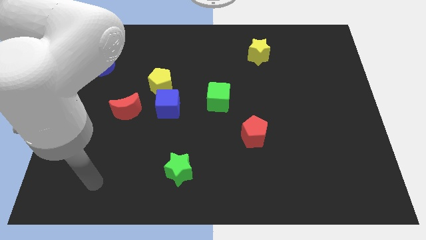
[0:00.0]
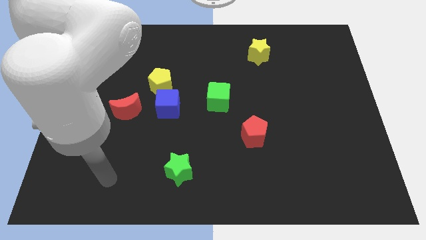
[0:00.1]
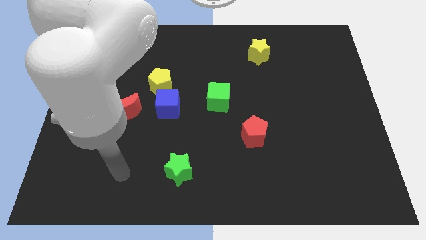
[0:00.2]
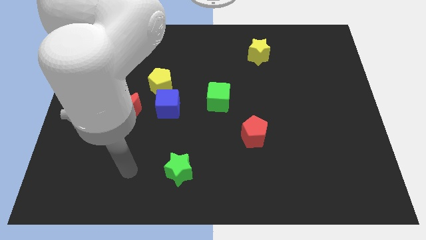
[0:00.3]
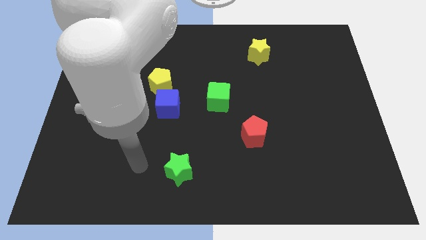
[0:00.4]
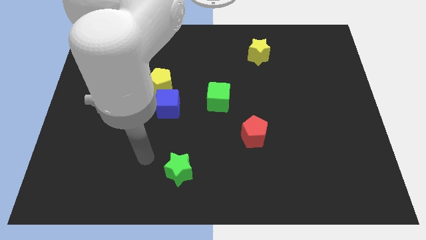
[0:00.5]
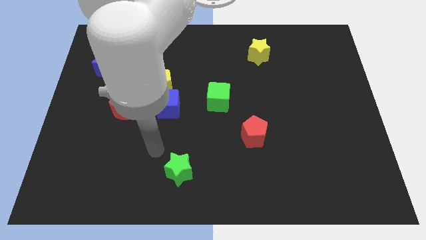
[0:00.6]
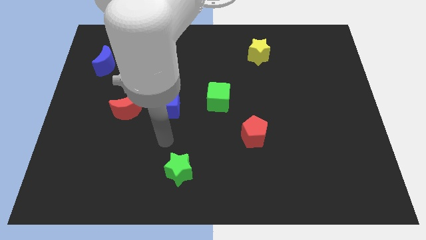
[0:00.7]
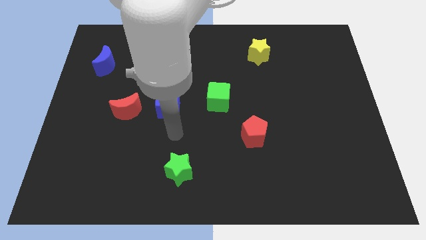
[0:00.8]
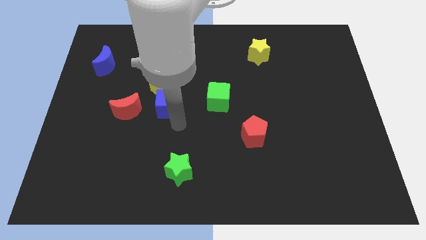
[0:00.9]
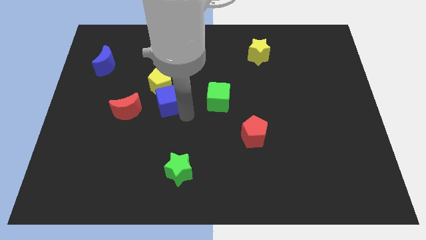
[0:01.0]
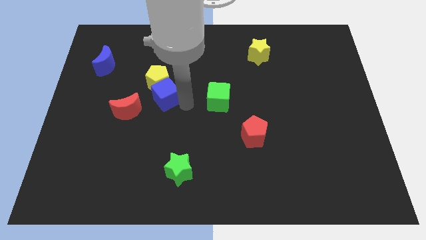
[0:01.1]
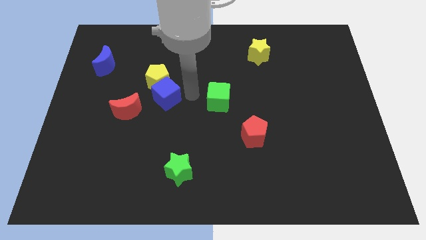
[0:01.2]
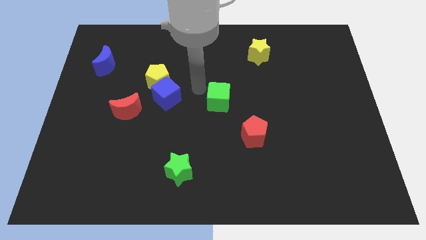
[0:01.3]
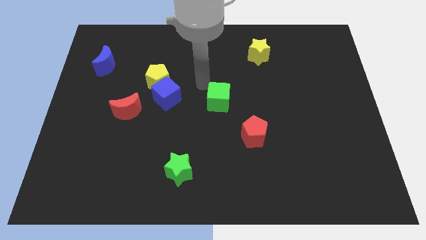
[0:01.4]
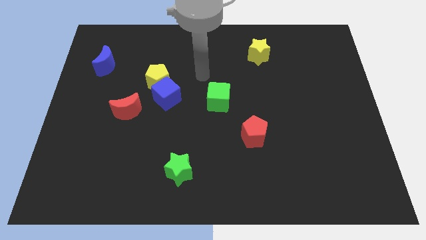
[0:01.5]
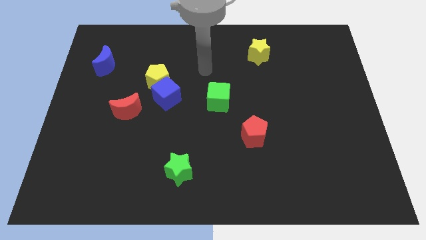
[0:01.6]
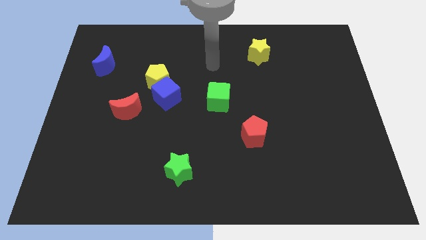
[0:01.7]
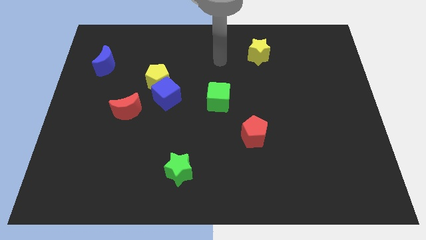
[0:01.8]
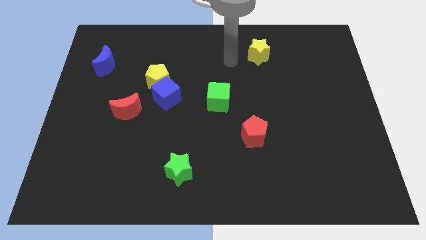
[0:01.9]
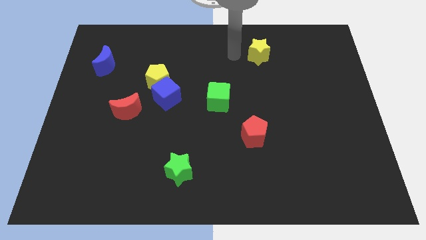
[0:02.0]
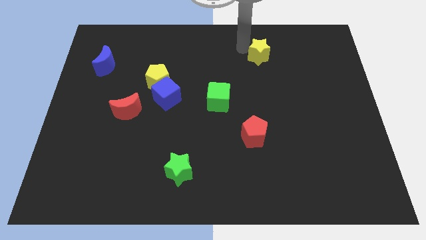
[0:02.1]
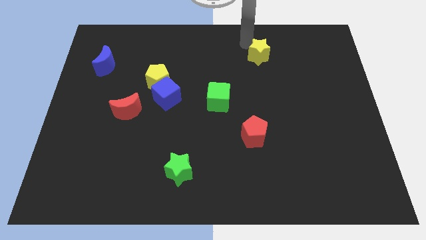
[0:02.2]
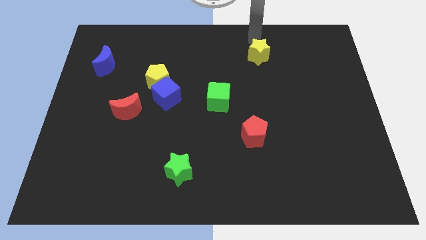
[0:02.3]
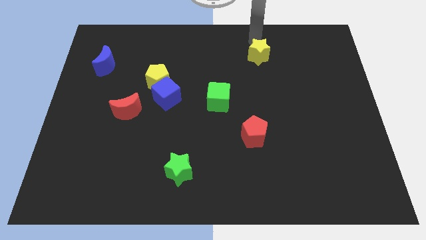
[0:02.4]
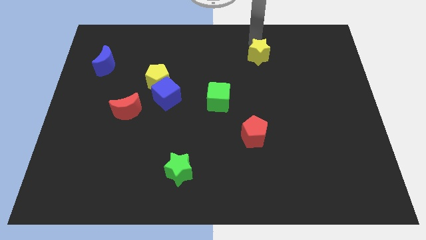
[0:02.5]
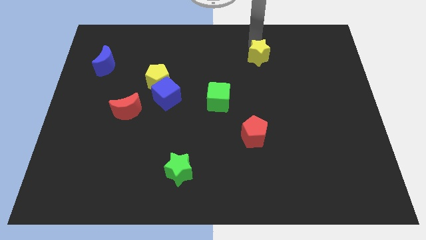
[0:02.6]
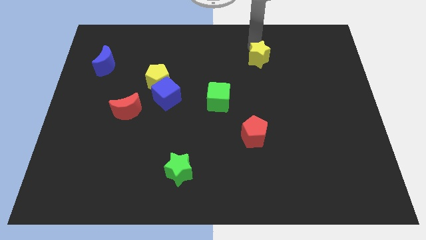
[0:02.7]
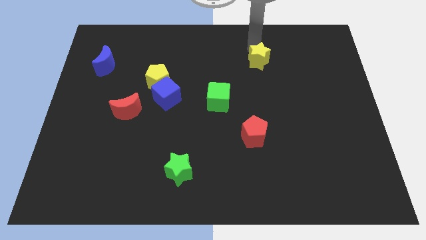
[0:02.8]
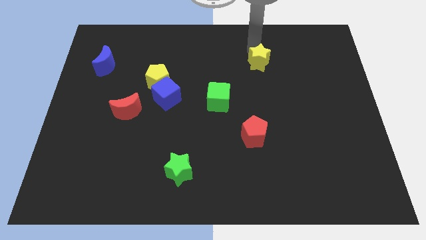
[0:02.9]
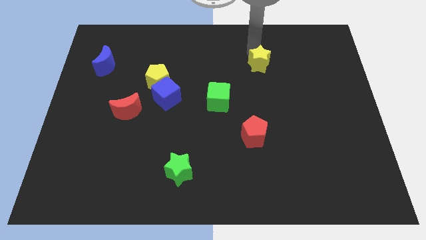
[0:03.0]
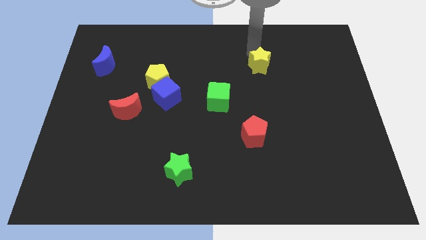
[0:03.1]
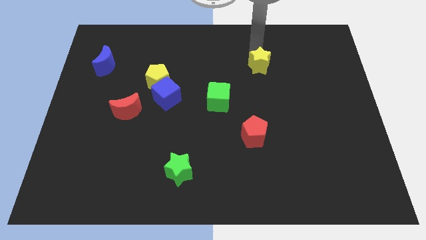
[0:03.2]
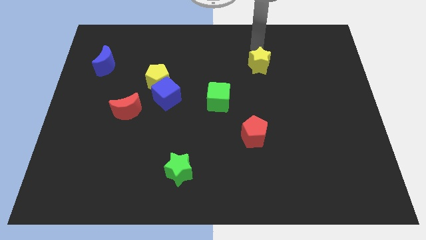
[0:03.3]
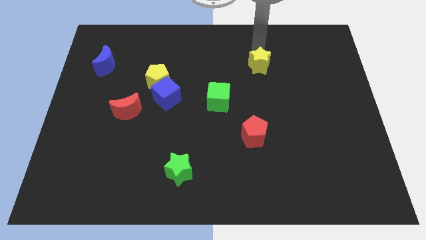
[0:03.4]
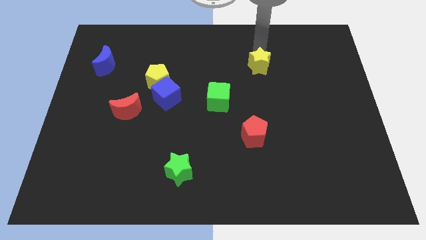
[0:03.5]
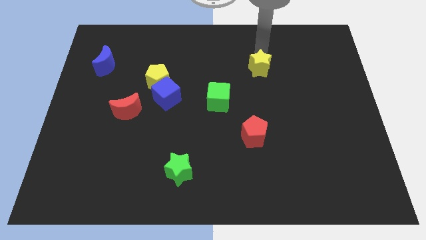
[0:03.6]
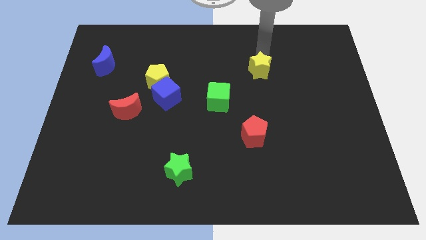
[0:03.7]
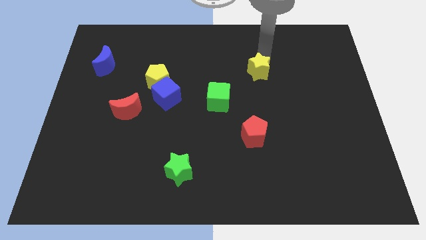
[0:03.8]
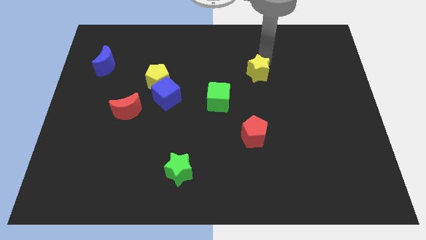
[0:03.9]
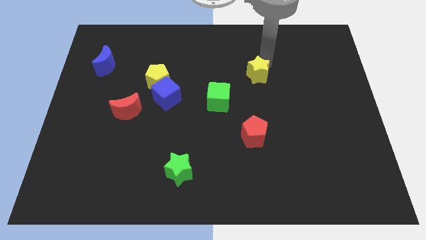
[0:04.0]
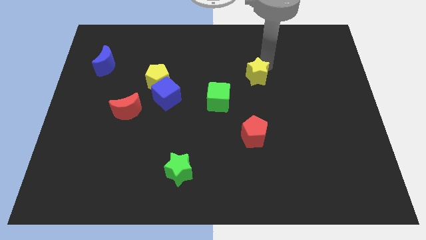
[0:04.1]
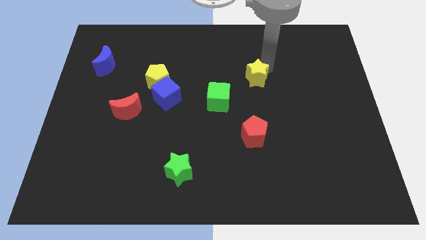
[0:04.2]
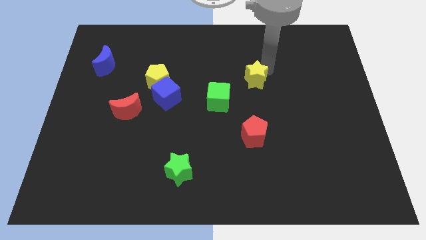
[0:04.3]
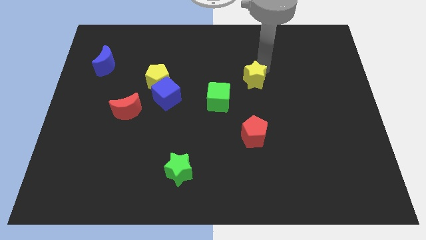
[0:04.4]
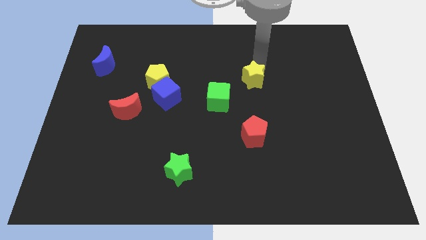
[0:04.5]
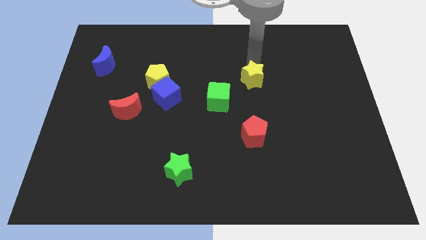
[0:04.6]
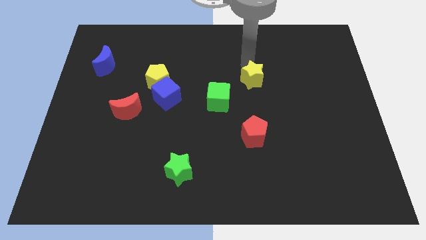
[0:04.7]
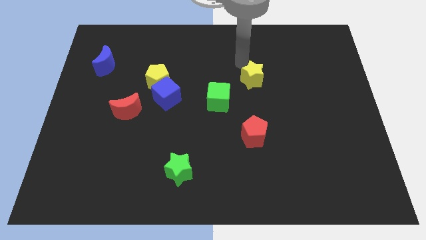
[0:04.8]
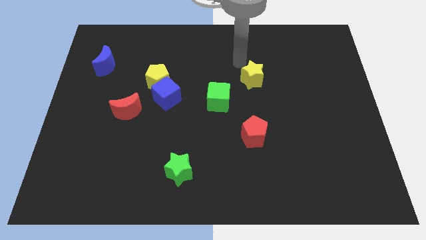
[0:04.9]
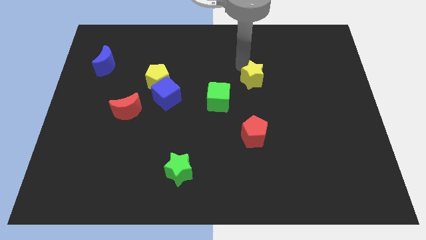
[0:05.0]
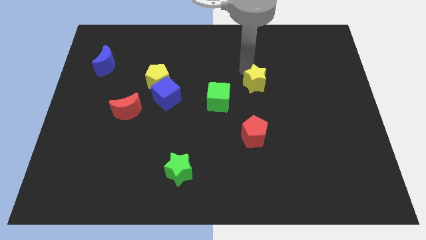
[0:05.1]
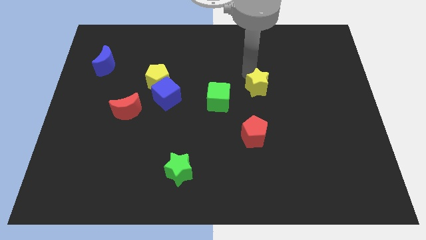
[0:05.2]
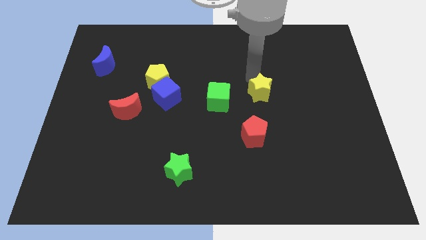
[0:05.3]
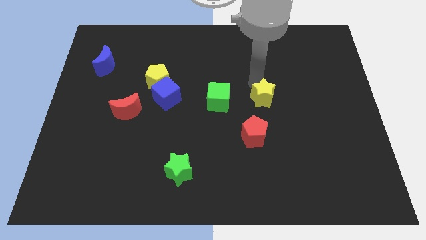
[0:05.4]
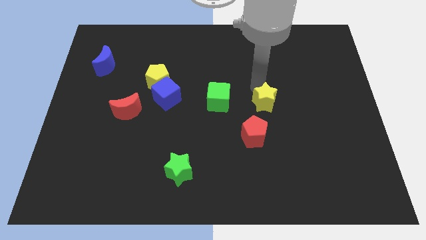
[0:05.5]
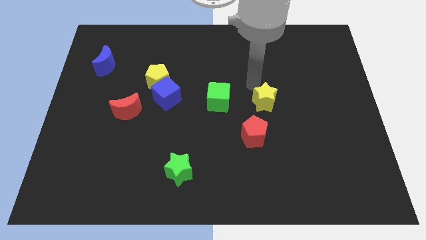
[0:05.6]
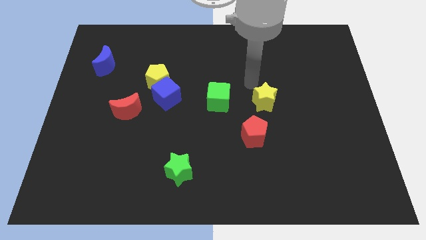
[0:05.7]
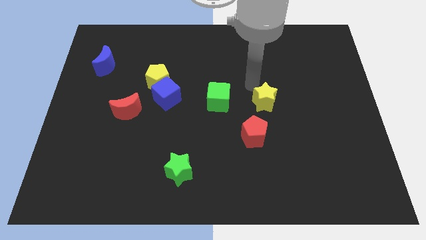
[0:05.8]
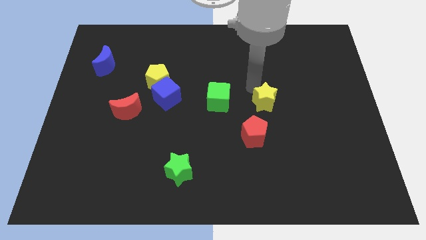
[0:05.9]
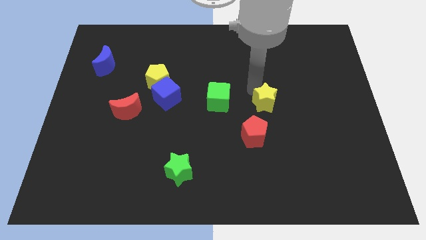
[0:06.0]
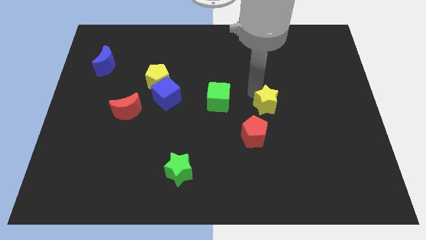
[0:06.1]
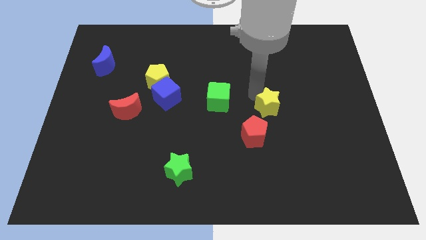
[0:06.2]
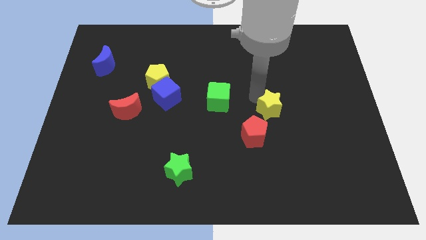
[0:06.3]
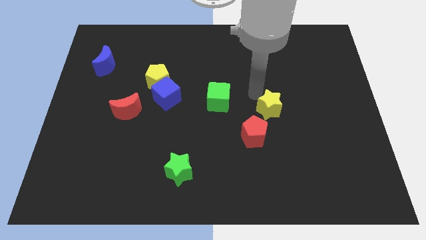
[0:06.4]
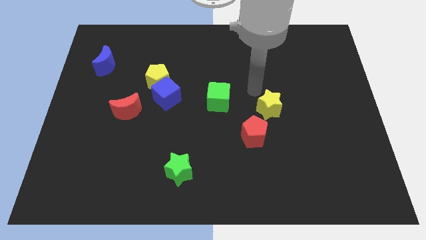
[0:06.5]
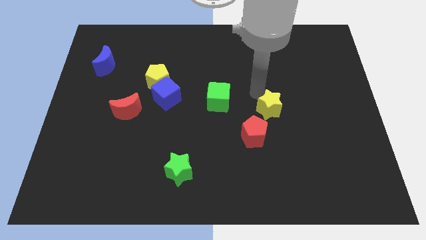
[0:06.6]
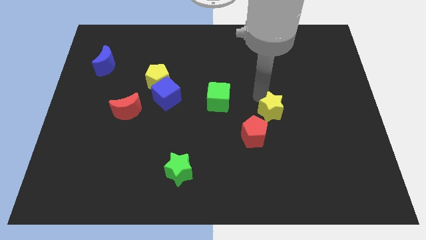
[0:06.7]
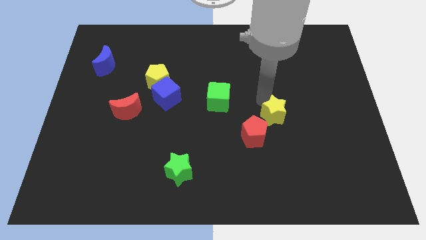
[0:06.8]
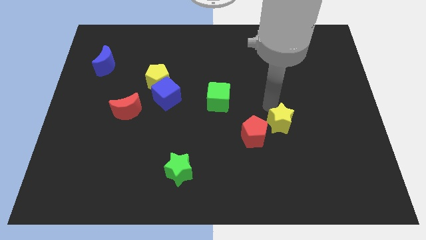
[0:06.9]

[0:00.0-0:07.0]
move the yellow star downwards

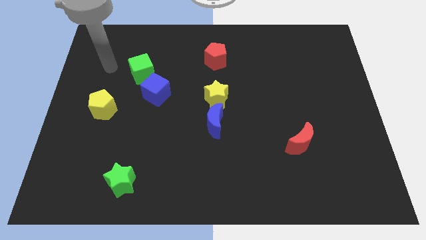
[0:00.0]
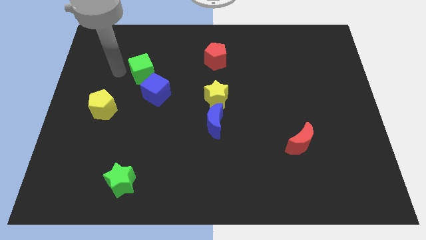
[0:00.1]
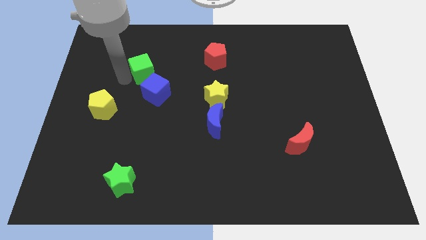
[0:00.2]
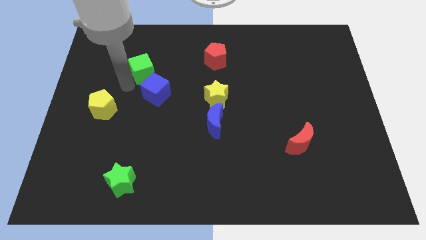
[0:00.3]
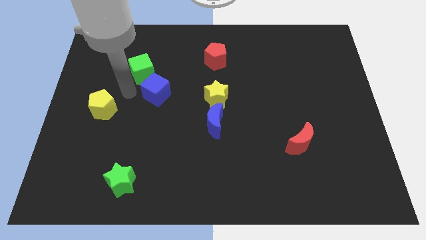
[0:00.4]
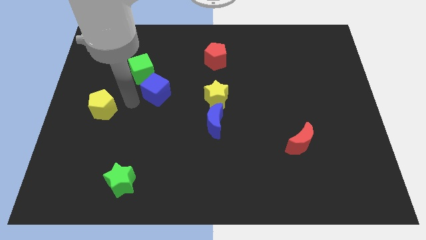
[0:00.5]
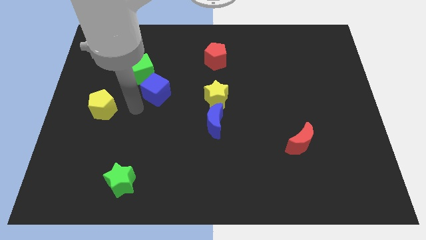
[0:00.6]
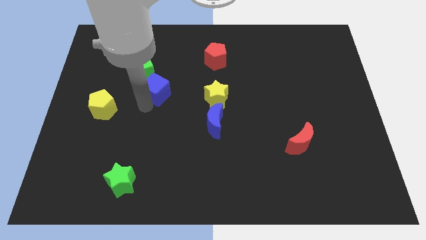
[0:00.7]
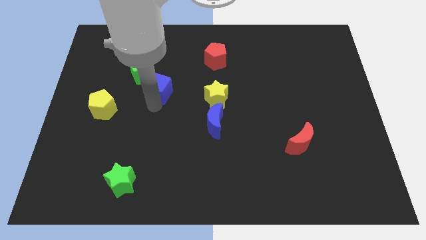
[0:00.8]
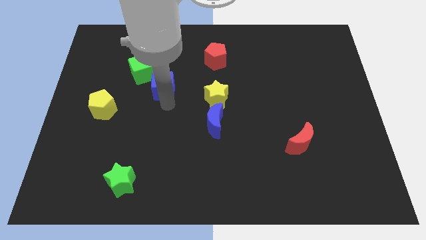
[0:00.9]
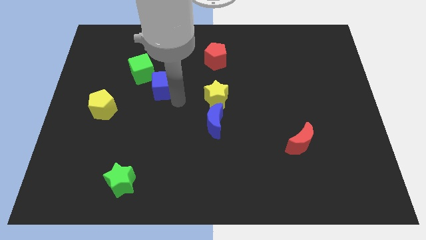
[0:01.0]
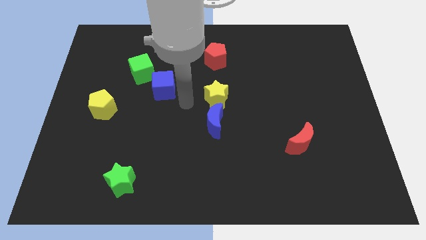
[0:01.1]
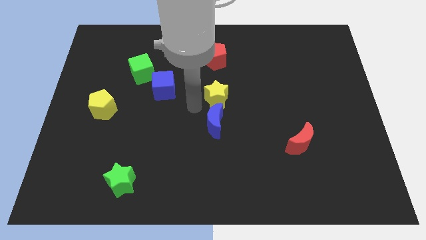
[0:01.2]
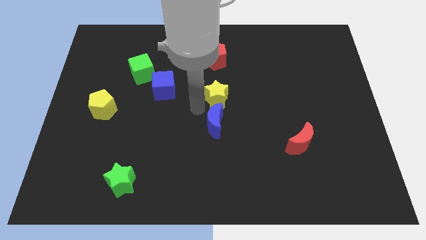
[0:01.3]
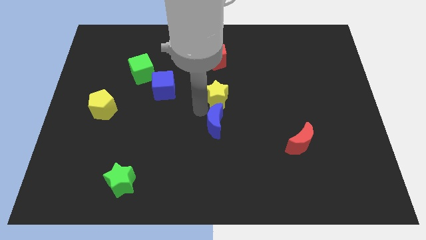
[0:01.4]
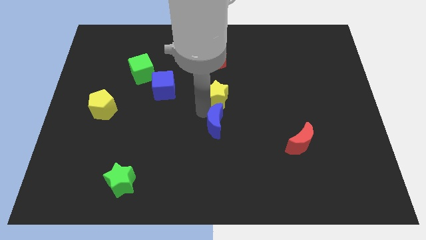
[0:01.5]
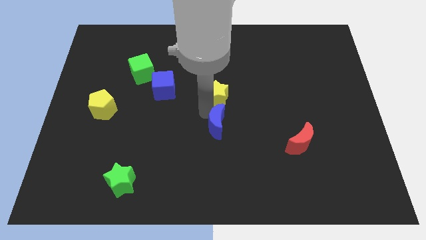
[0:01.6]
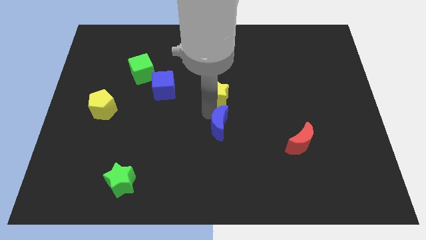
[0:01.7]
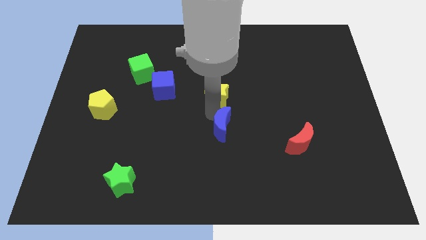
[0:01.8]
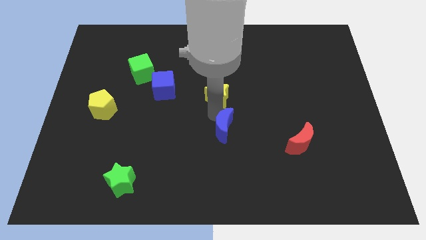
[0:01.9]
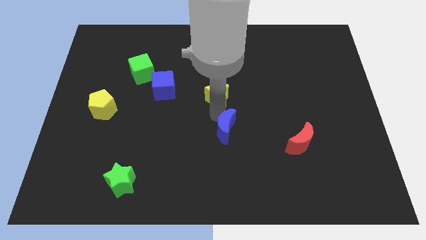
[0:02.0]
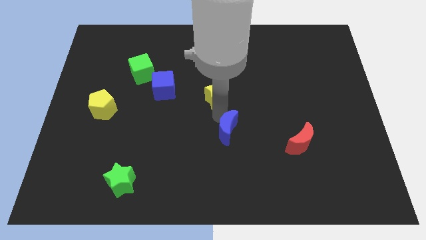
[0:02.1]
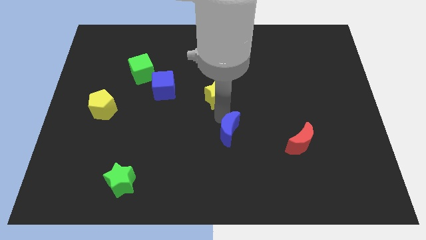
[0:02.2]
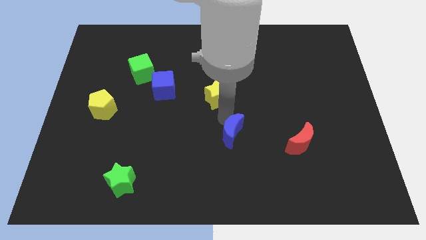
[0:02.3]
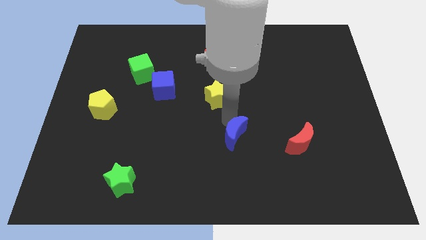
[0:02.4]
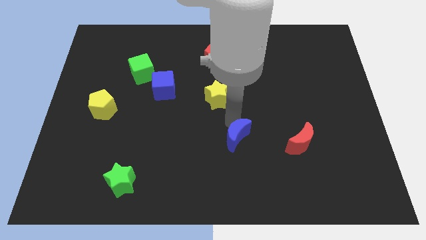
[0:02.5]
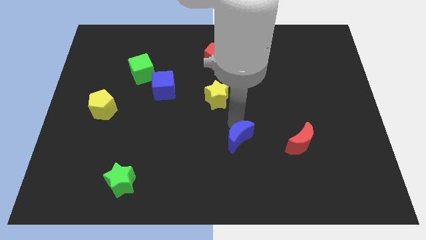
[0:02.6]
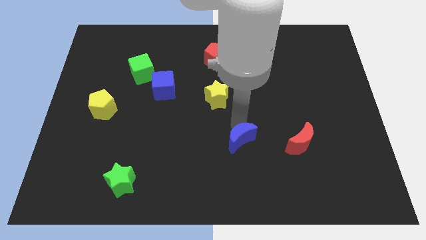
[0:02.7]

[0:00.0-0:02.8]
move the blue moon slightly down and right
